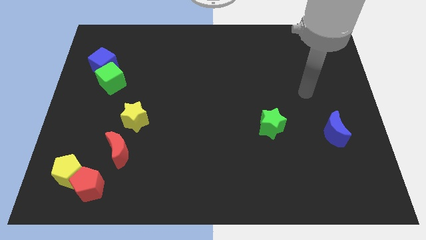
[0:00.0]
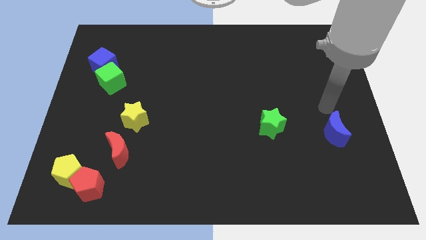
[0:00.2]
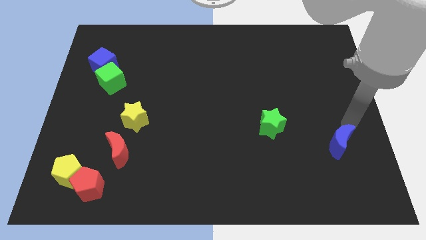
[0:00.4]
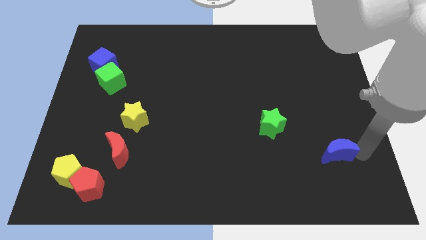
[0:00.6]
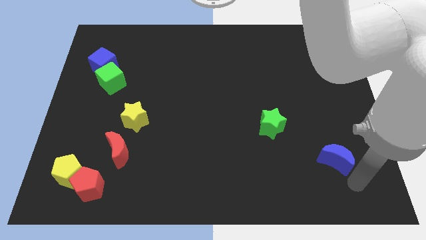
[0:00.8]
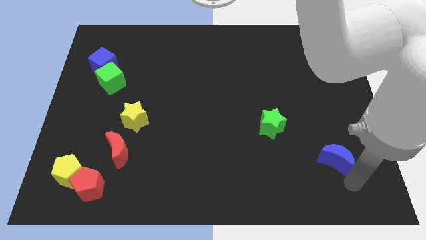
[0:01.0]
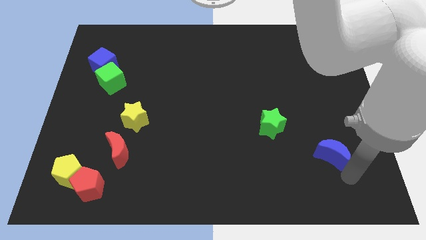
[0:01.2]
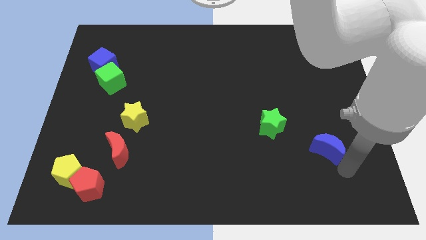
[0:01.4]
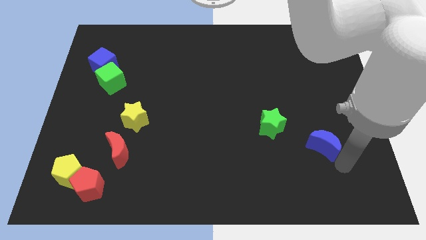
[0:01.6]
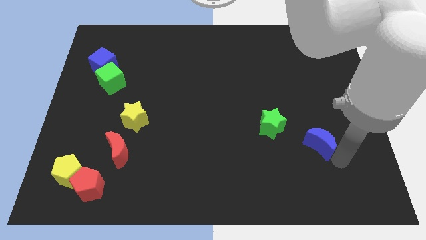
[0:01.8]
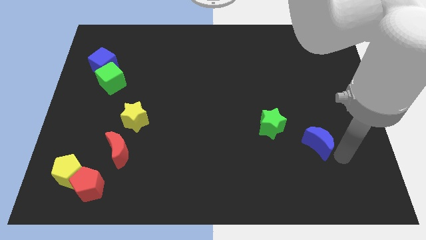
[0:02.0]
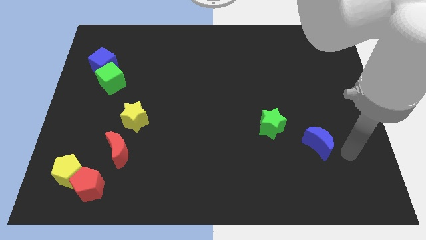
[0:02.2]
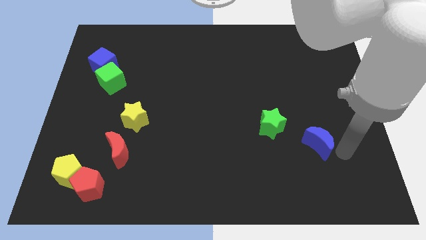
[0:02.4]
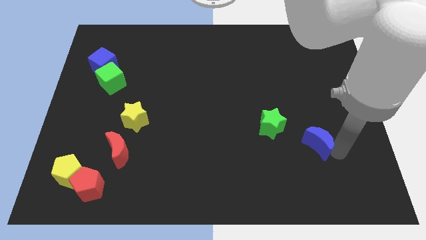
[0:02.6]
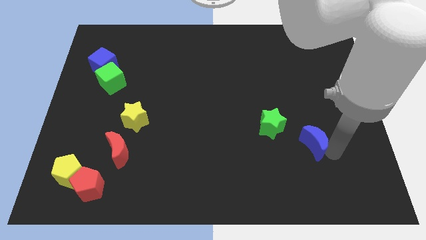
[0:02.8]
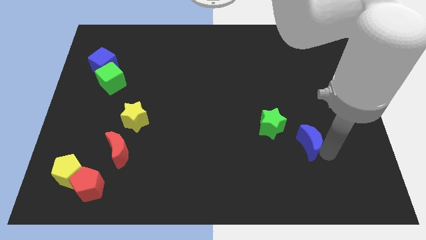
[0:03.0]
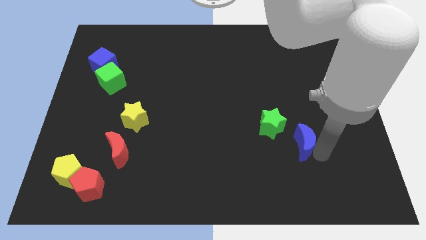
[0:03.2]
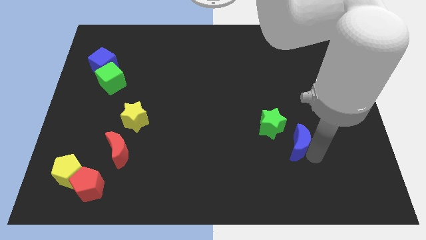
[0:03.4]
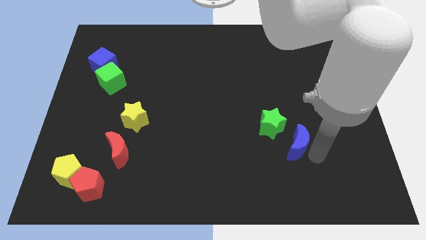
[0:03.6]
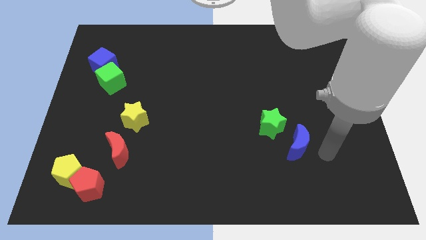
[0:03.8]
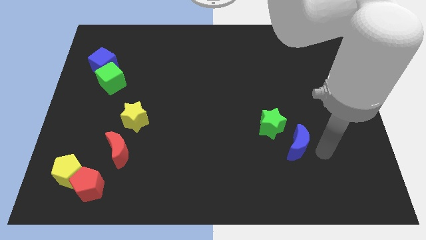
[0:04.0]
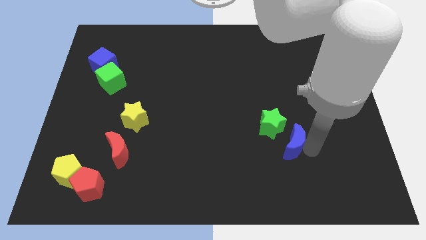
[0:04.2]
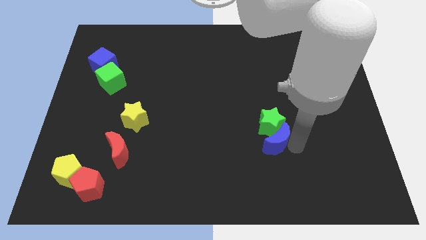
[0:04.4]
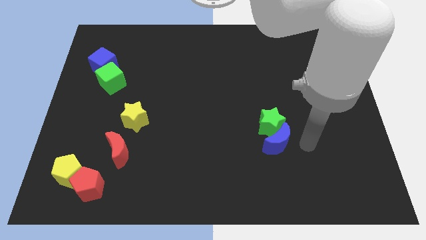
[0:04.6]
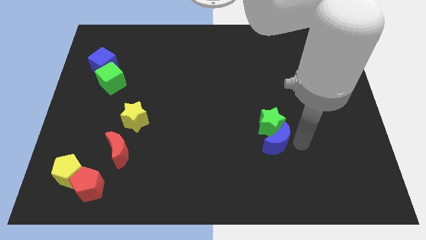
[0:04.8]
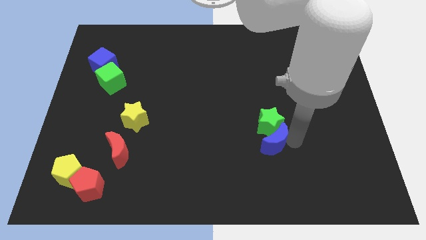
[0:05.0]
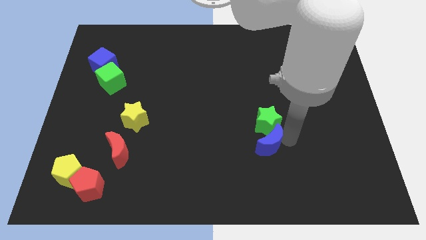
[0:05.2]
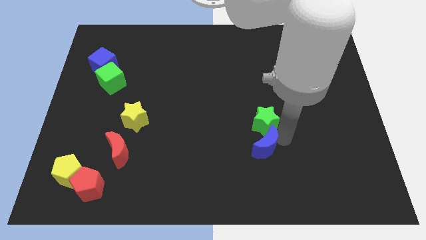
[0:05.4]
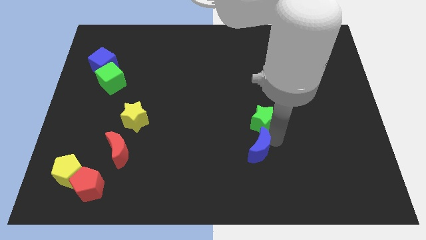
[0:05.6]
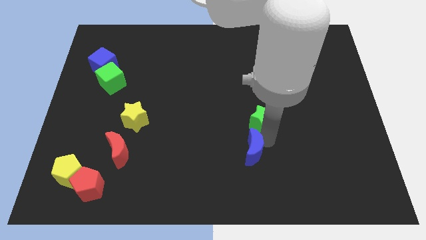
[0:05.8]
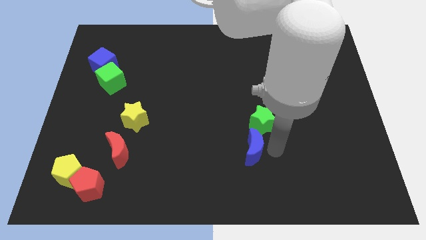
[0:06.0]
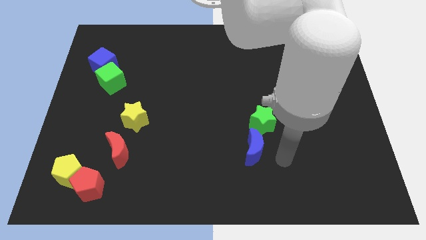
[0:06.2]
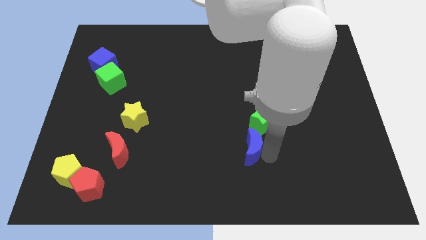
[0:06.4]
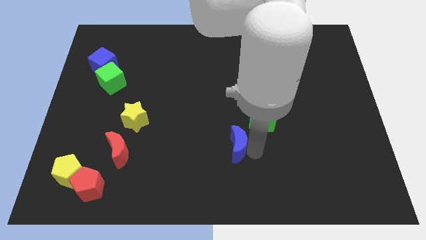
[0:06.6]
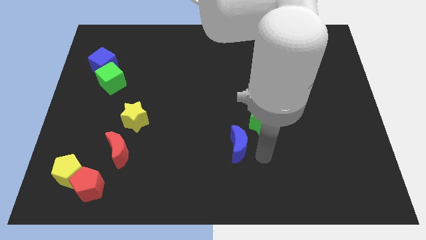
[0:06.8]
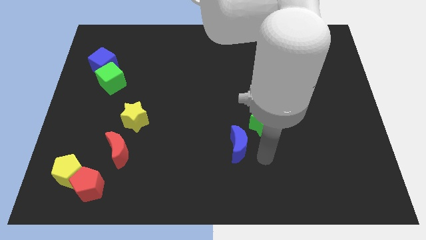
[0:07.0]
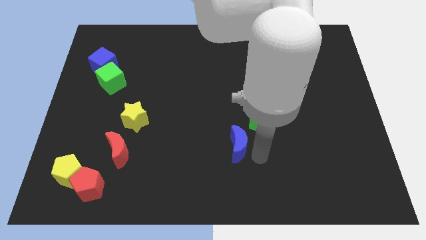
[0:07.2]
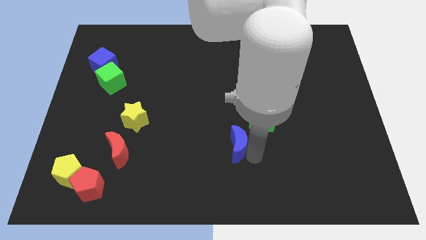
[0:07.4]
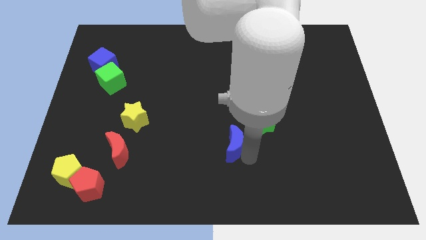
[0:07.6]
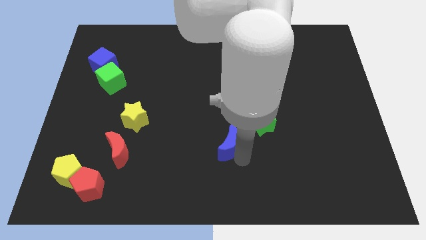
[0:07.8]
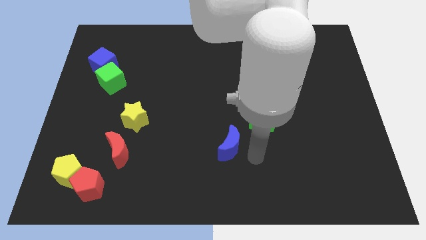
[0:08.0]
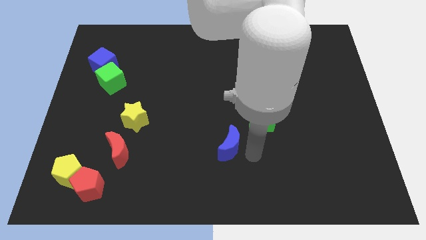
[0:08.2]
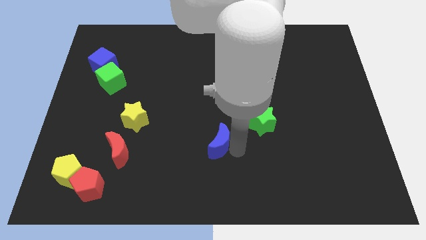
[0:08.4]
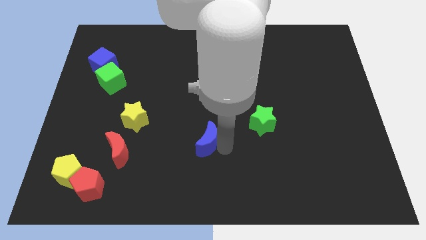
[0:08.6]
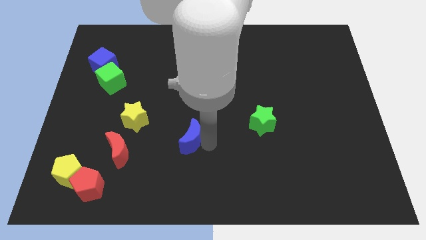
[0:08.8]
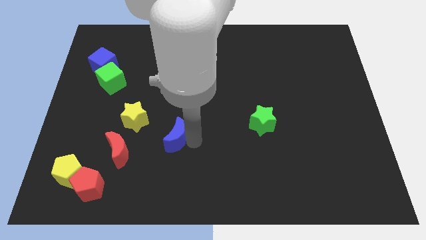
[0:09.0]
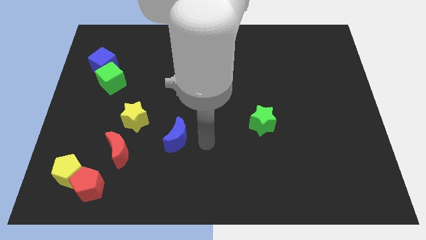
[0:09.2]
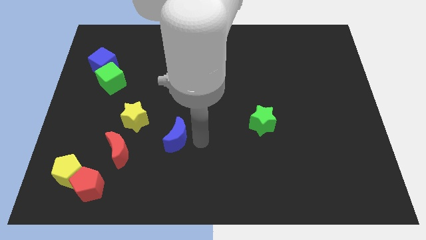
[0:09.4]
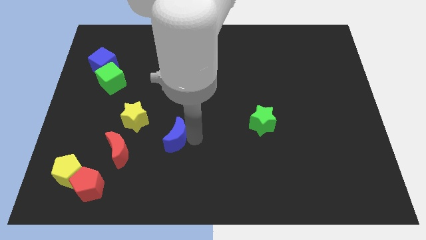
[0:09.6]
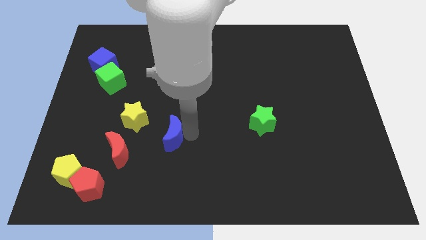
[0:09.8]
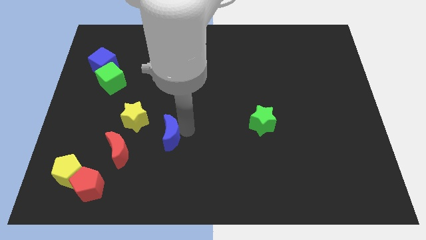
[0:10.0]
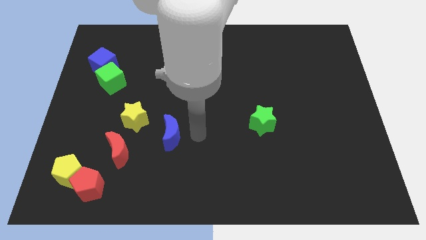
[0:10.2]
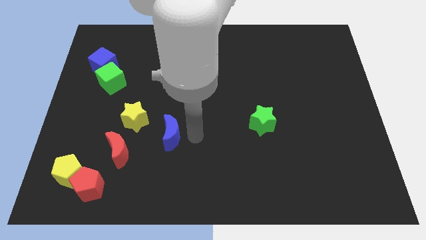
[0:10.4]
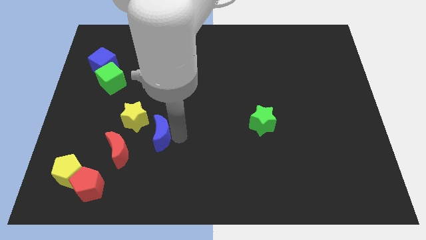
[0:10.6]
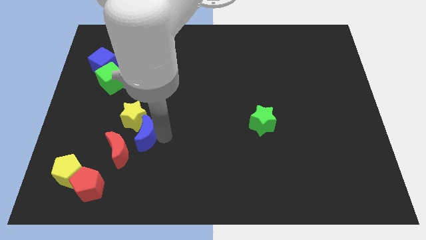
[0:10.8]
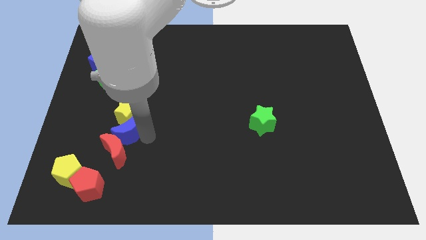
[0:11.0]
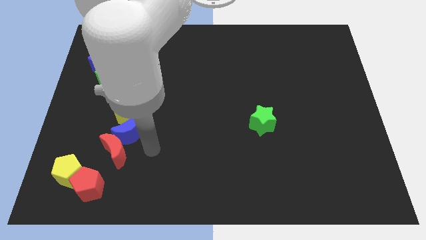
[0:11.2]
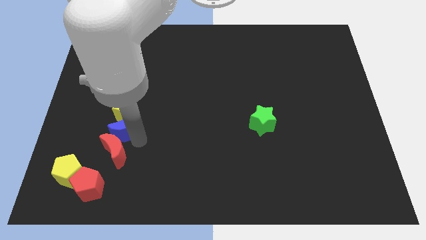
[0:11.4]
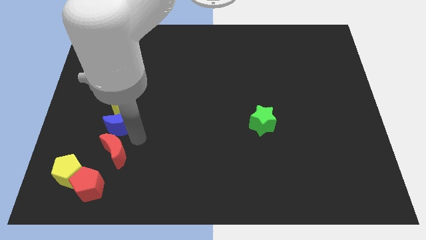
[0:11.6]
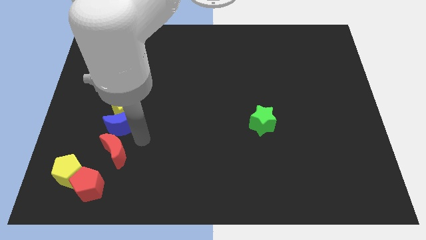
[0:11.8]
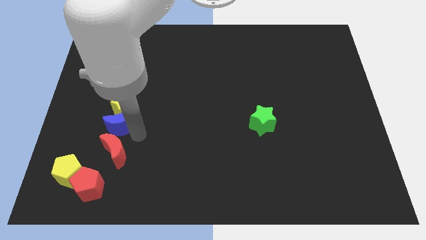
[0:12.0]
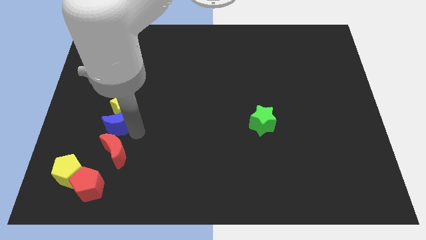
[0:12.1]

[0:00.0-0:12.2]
put the blue moon below the green cube

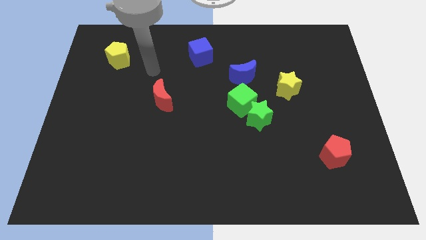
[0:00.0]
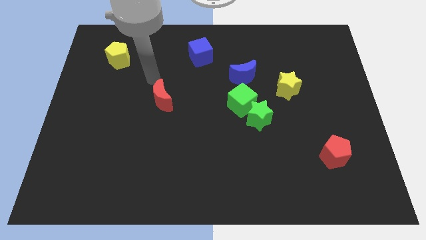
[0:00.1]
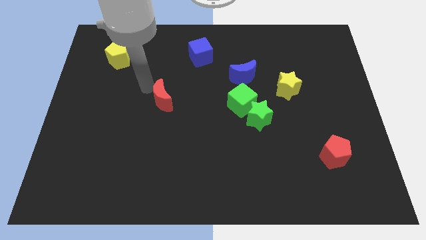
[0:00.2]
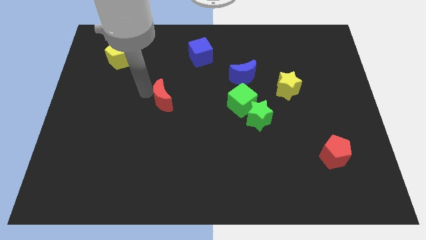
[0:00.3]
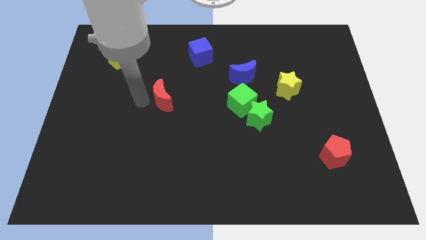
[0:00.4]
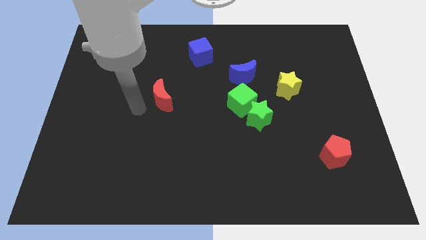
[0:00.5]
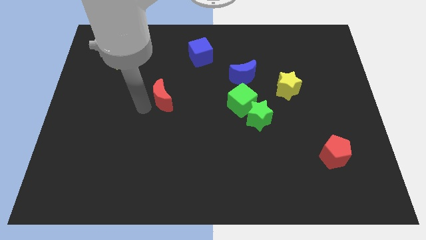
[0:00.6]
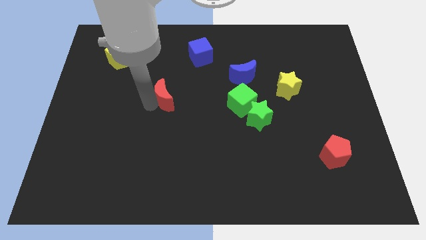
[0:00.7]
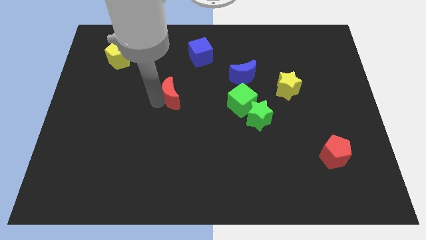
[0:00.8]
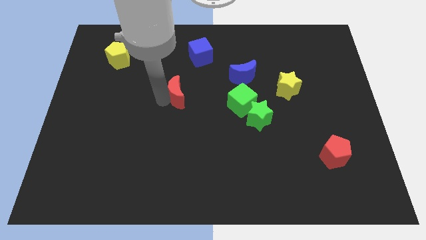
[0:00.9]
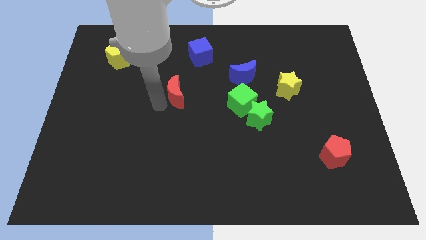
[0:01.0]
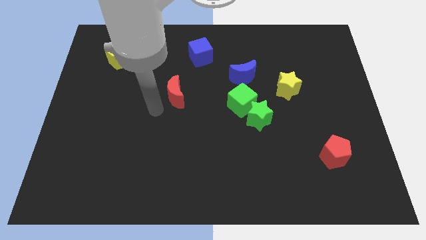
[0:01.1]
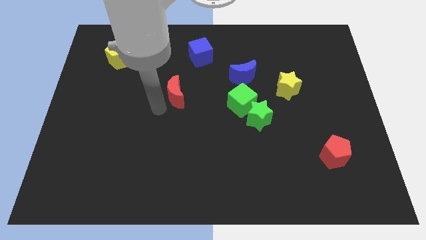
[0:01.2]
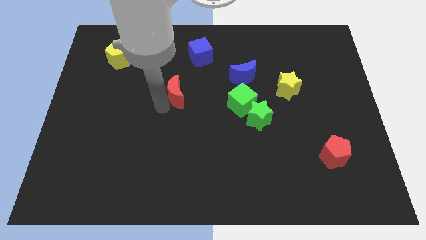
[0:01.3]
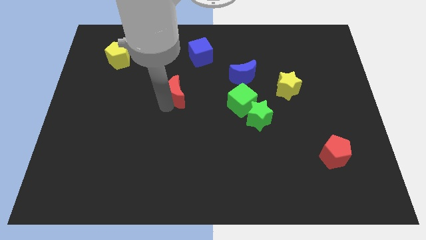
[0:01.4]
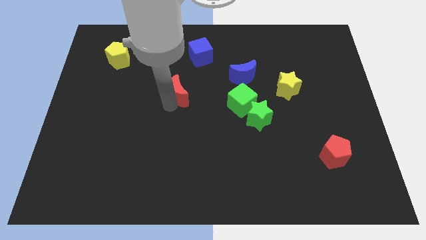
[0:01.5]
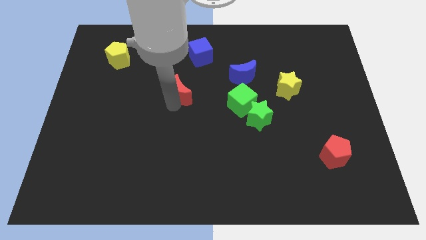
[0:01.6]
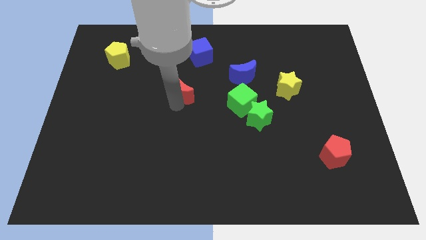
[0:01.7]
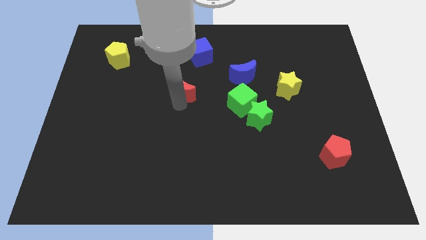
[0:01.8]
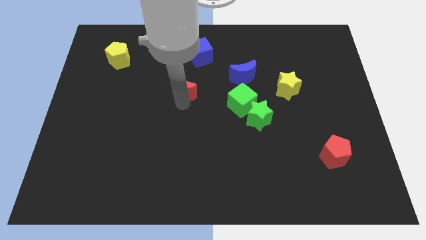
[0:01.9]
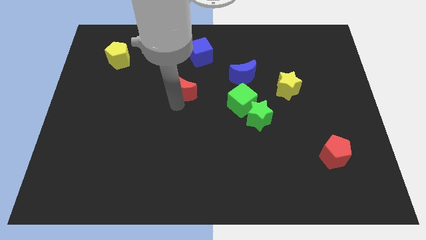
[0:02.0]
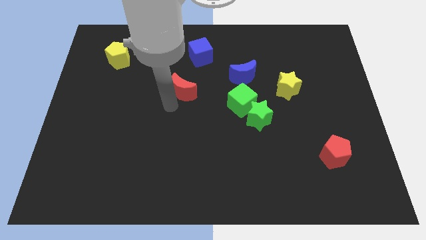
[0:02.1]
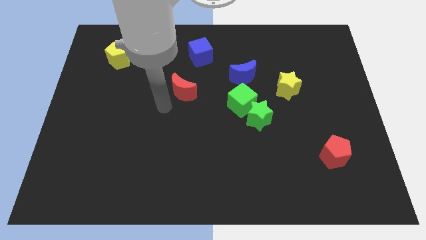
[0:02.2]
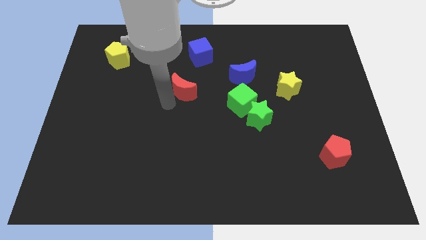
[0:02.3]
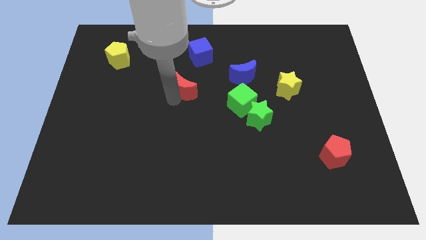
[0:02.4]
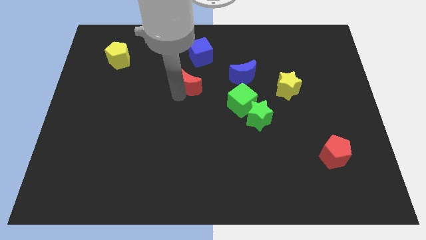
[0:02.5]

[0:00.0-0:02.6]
push the red moon left of the blue moon
